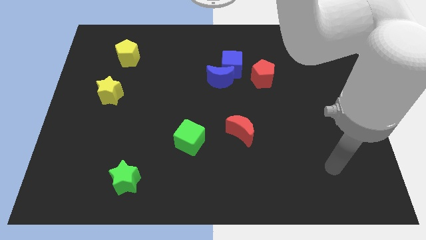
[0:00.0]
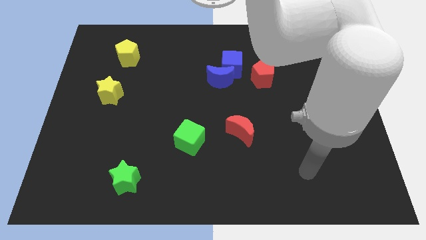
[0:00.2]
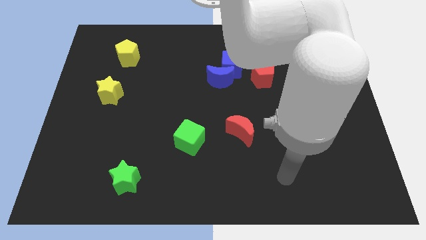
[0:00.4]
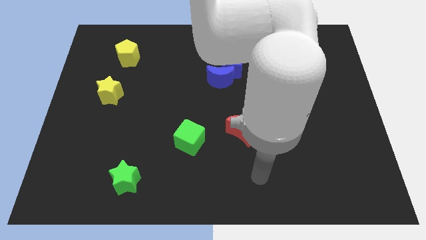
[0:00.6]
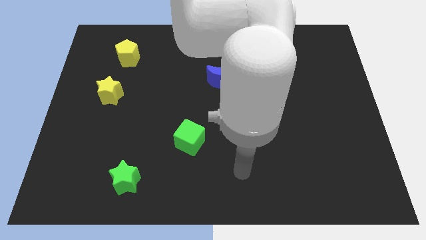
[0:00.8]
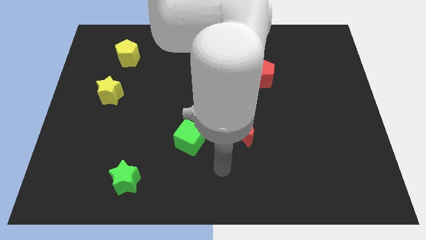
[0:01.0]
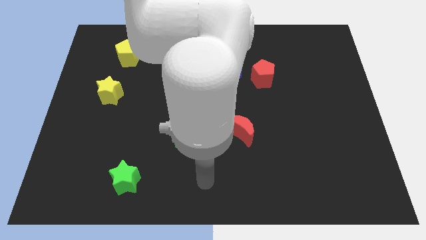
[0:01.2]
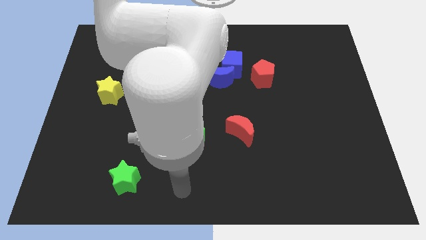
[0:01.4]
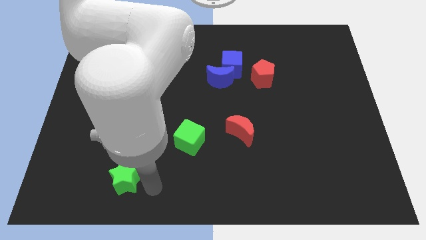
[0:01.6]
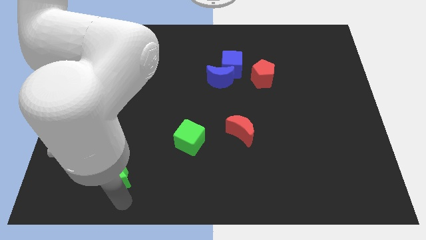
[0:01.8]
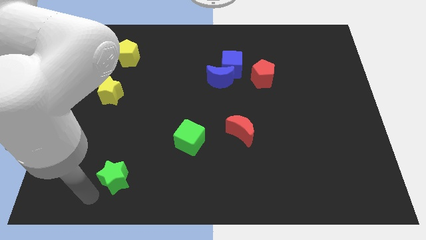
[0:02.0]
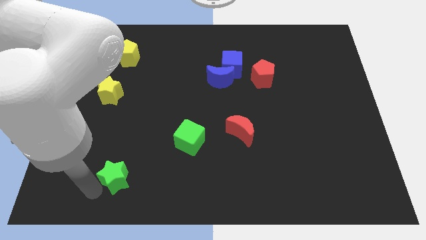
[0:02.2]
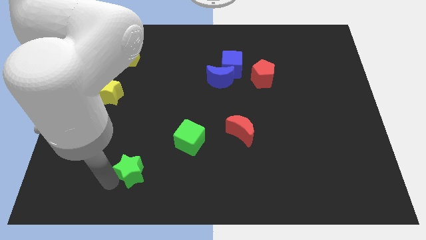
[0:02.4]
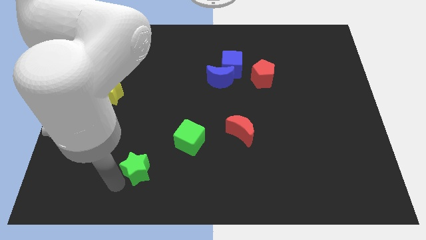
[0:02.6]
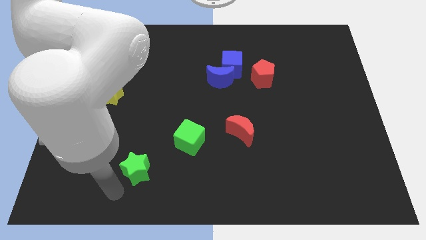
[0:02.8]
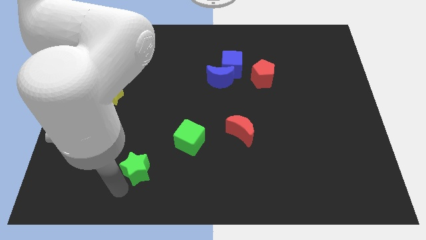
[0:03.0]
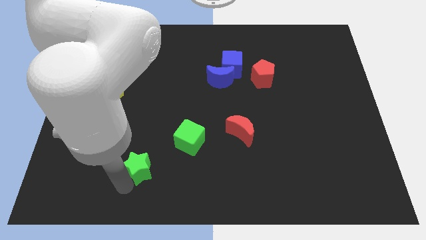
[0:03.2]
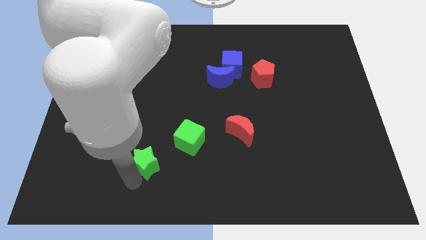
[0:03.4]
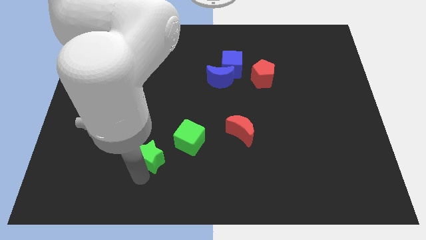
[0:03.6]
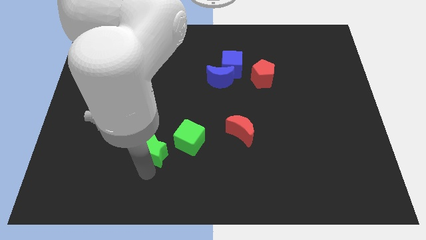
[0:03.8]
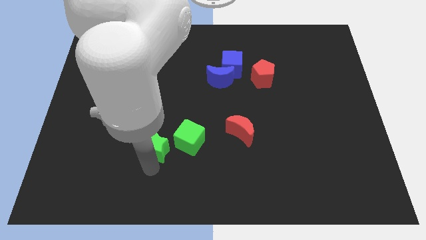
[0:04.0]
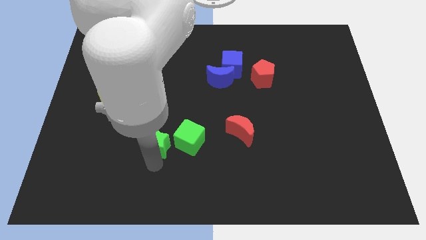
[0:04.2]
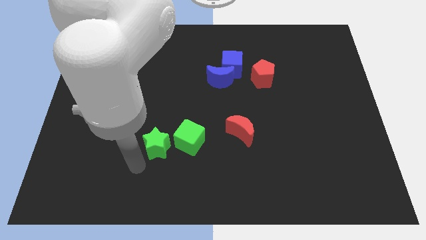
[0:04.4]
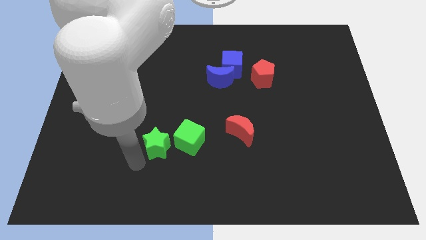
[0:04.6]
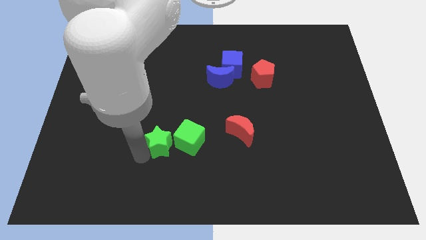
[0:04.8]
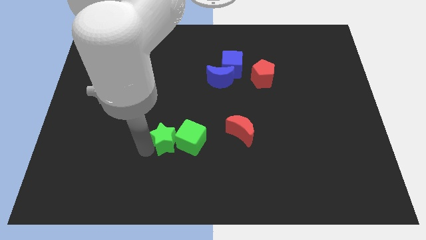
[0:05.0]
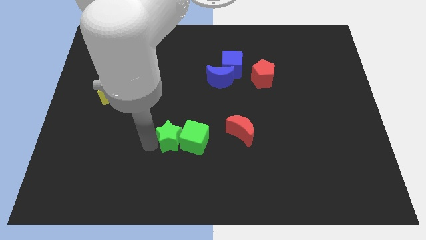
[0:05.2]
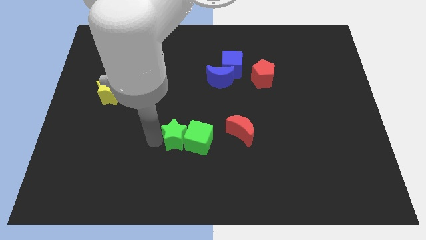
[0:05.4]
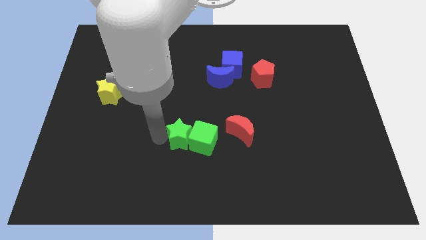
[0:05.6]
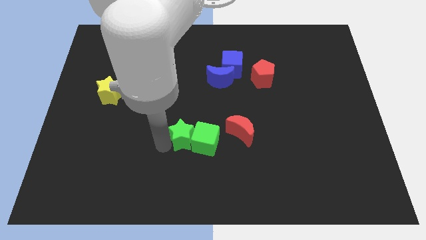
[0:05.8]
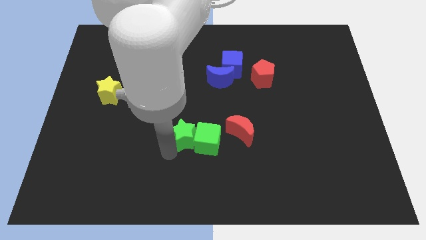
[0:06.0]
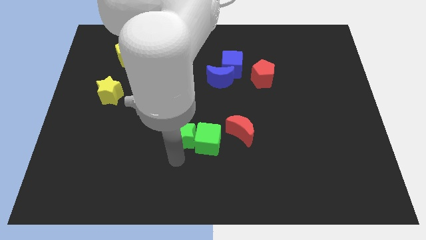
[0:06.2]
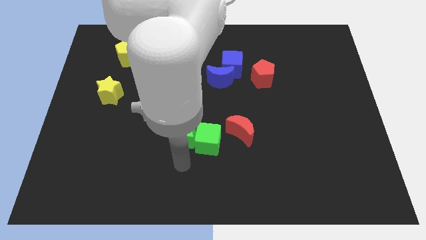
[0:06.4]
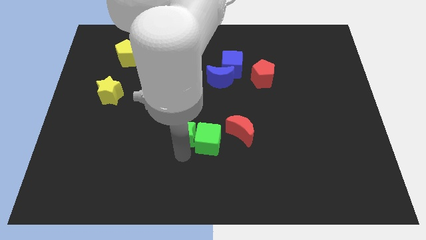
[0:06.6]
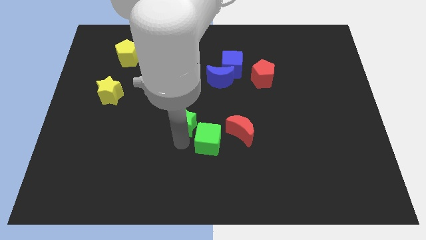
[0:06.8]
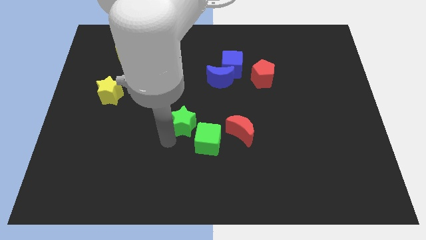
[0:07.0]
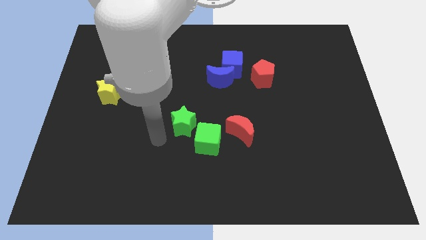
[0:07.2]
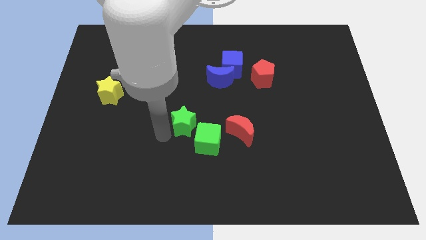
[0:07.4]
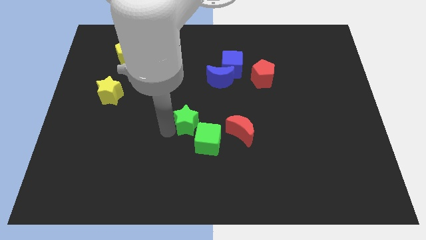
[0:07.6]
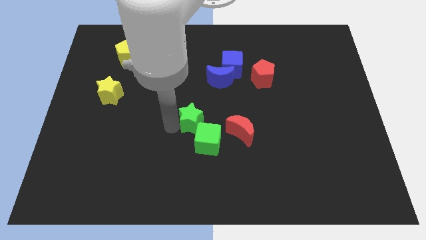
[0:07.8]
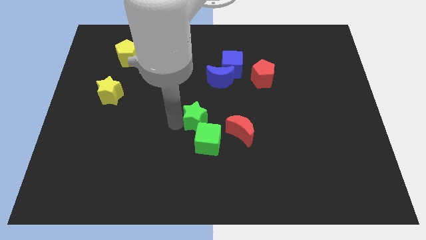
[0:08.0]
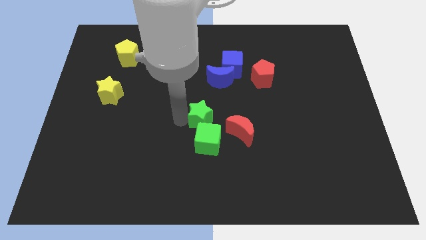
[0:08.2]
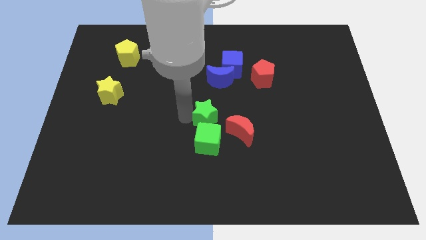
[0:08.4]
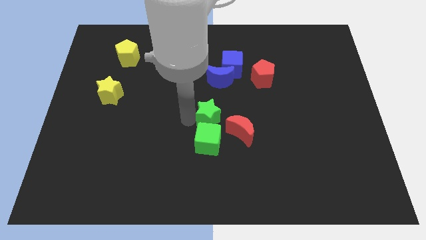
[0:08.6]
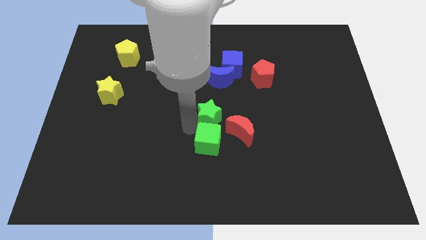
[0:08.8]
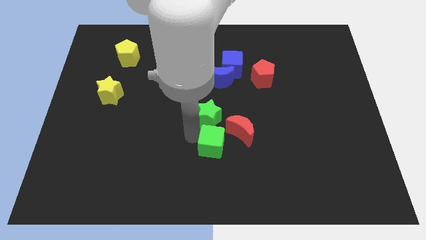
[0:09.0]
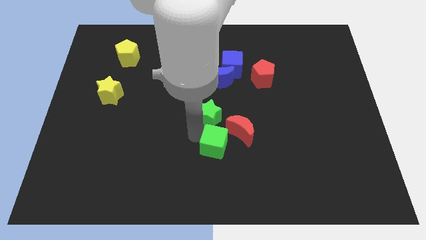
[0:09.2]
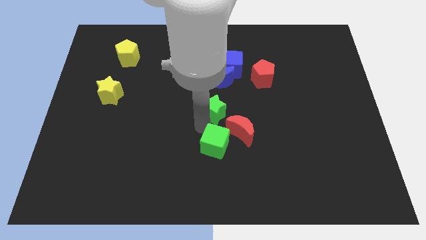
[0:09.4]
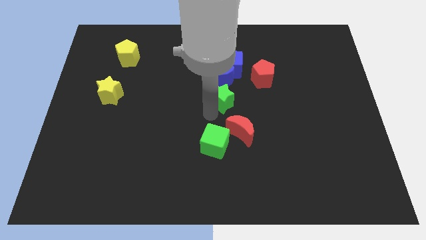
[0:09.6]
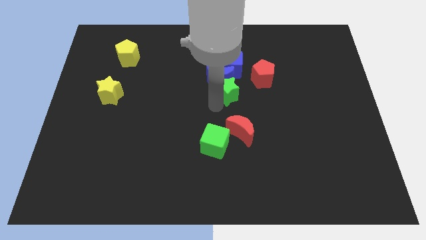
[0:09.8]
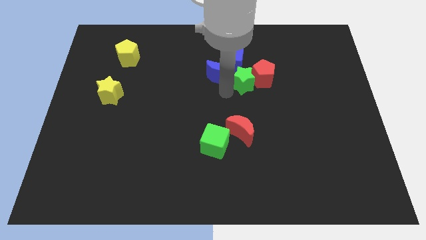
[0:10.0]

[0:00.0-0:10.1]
slide the green star to the red pentagon

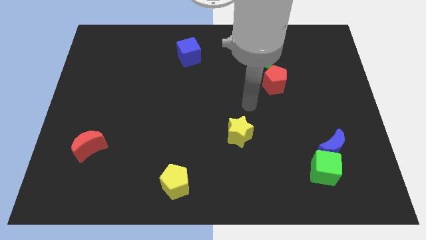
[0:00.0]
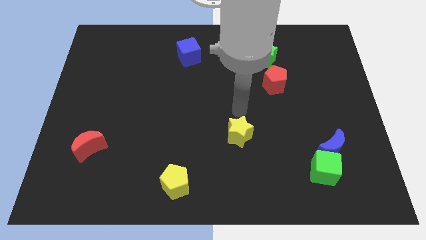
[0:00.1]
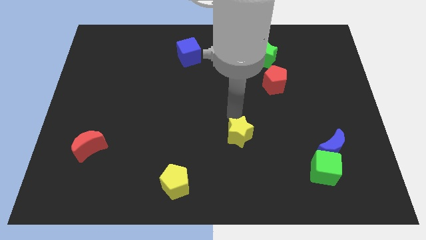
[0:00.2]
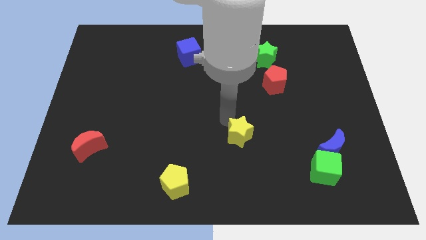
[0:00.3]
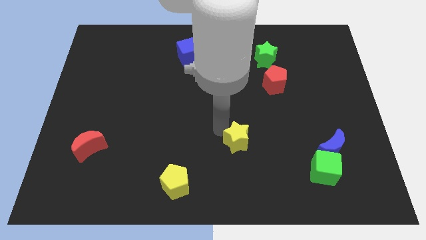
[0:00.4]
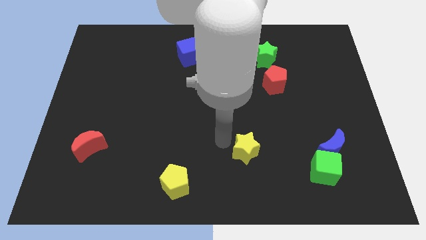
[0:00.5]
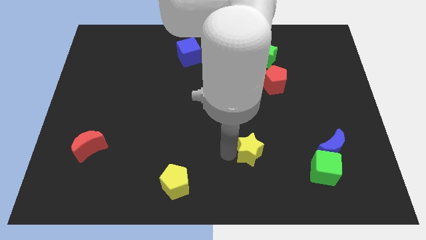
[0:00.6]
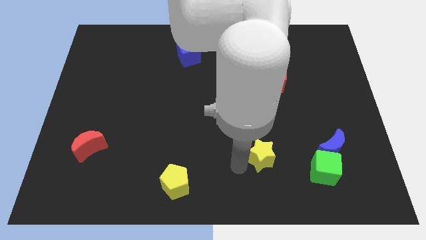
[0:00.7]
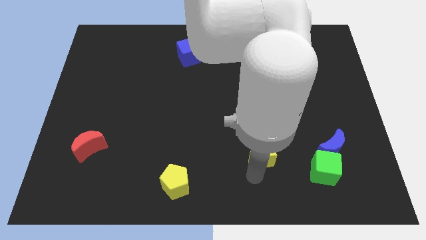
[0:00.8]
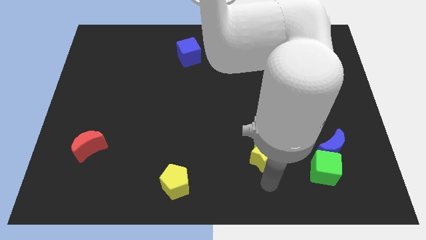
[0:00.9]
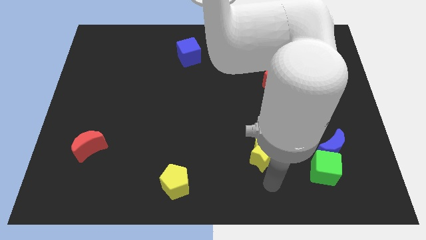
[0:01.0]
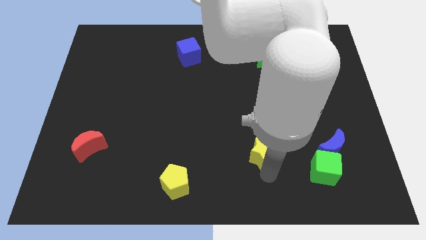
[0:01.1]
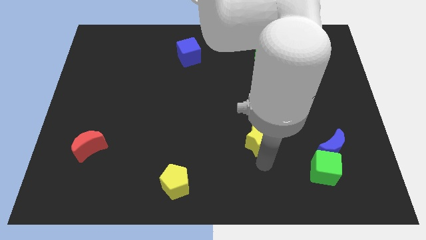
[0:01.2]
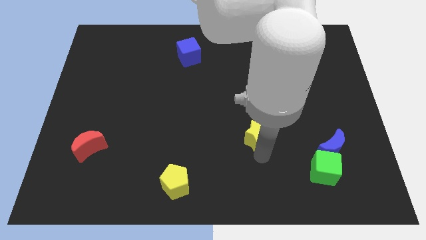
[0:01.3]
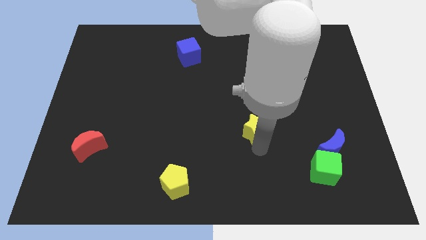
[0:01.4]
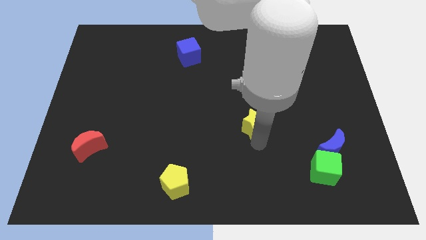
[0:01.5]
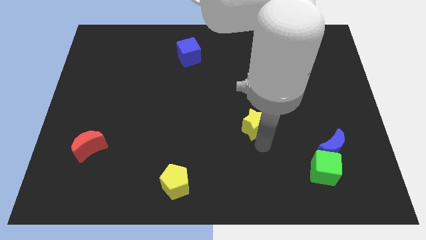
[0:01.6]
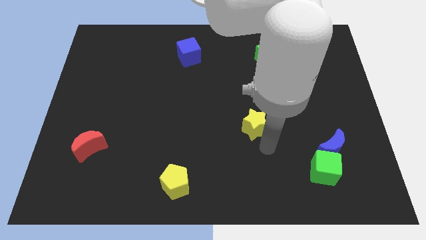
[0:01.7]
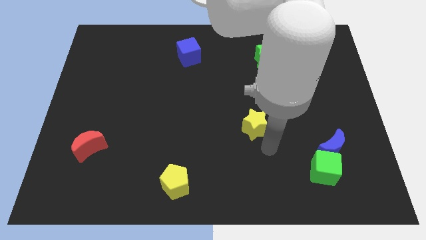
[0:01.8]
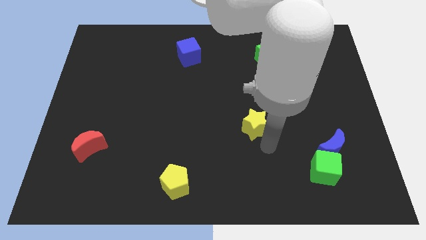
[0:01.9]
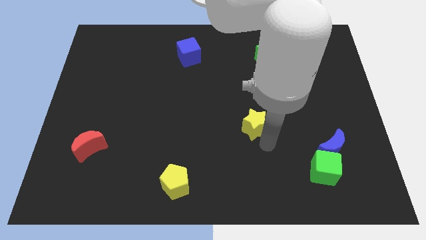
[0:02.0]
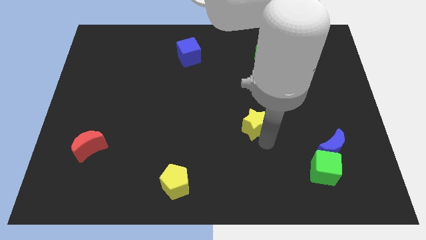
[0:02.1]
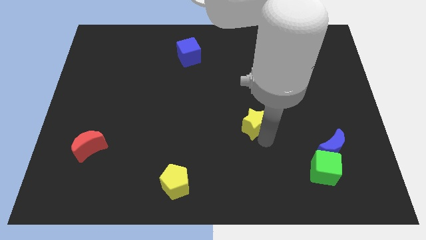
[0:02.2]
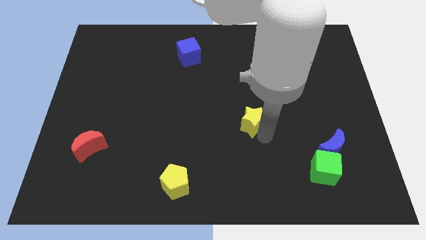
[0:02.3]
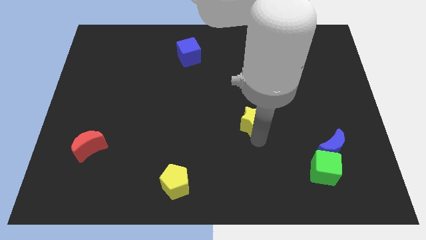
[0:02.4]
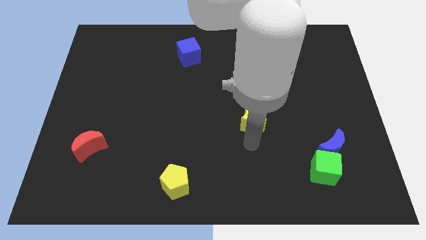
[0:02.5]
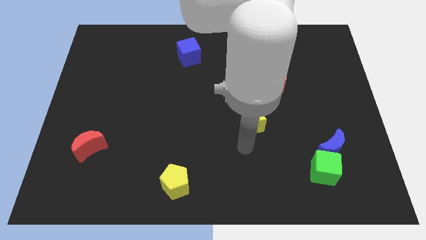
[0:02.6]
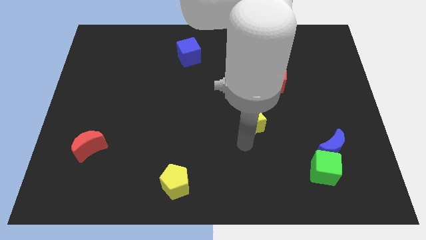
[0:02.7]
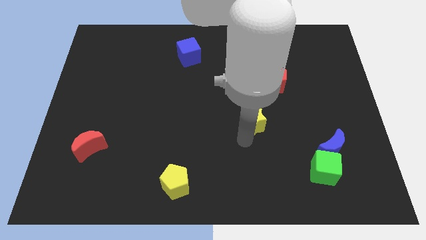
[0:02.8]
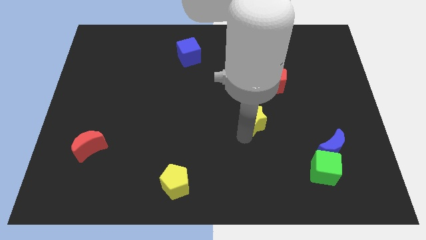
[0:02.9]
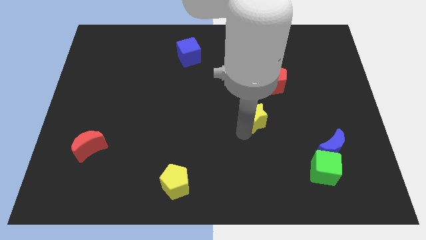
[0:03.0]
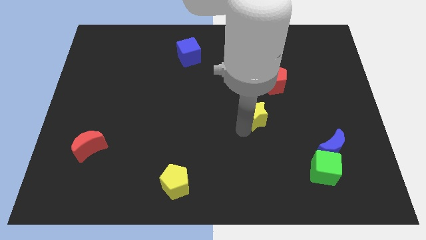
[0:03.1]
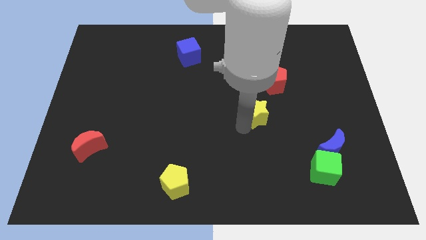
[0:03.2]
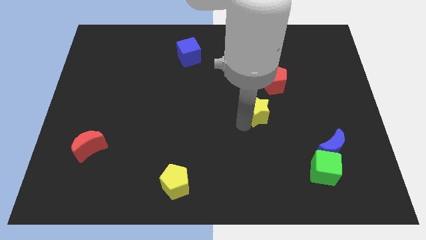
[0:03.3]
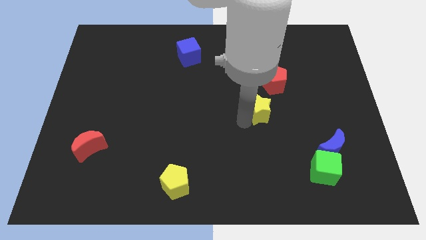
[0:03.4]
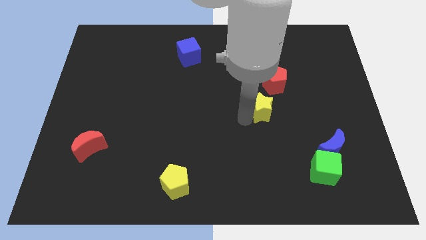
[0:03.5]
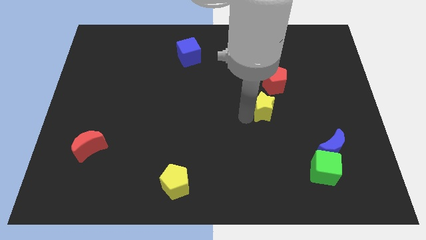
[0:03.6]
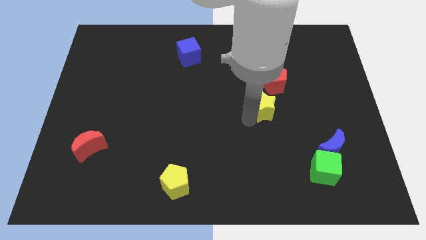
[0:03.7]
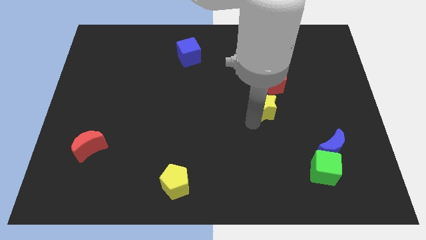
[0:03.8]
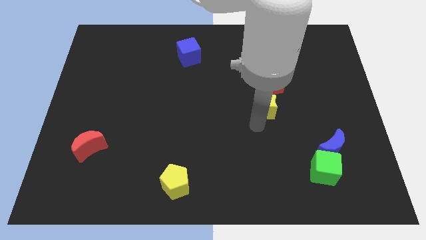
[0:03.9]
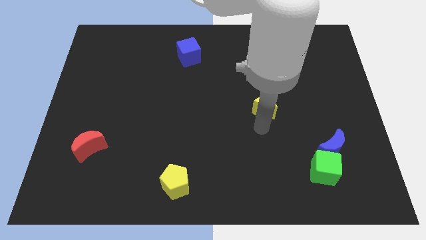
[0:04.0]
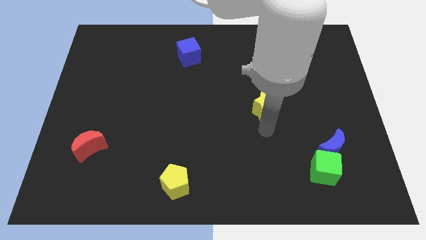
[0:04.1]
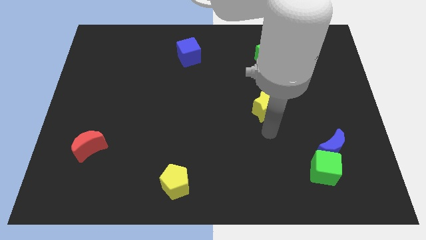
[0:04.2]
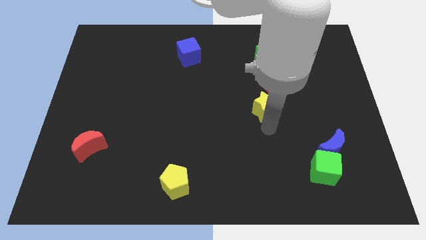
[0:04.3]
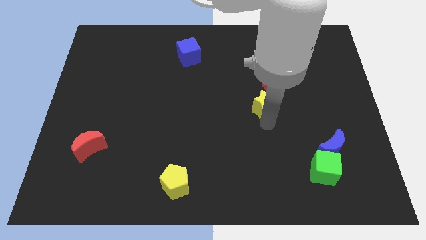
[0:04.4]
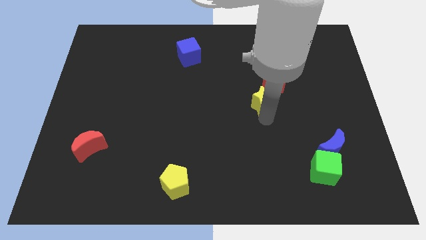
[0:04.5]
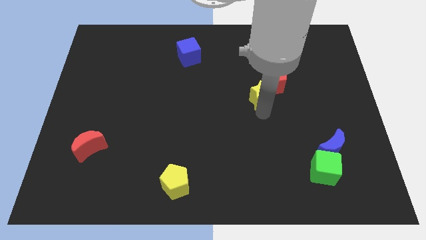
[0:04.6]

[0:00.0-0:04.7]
move the yellow star next to the red pentagon
